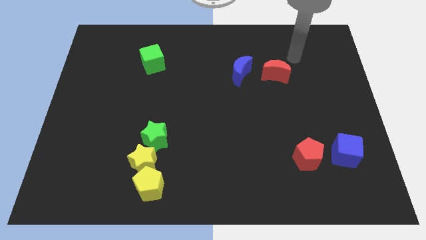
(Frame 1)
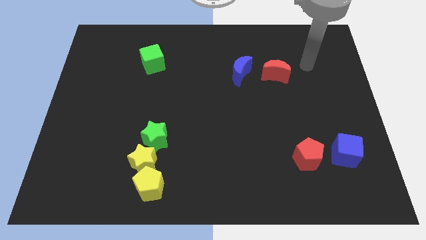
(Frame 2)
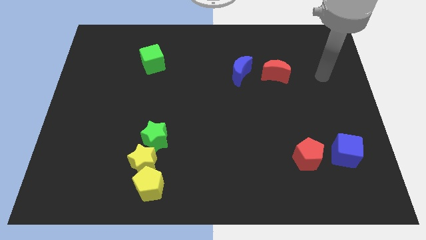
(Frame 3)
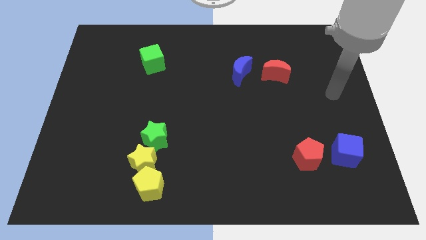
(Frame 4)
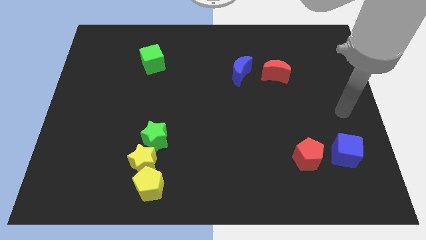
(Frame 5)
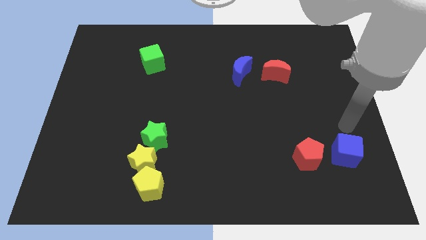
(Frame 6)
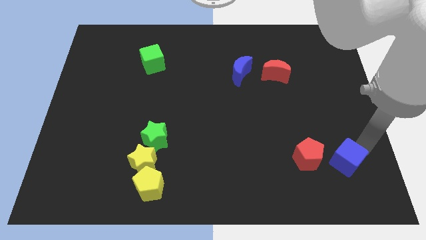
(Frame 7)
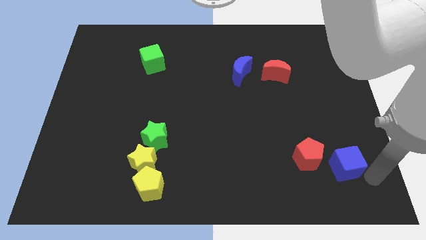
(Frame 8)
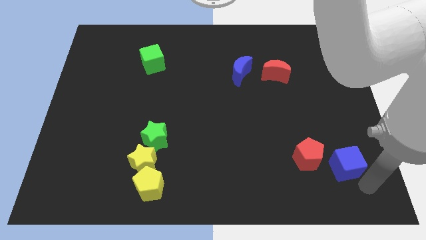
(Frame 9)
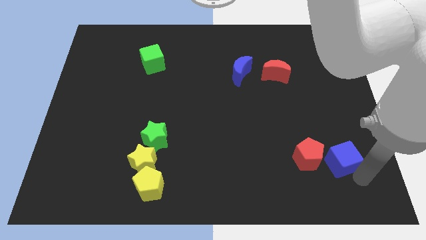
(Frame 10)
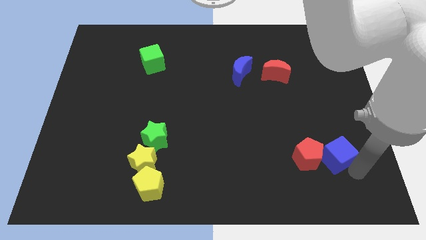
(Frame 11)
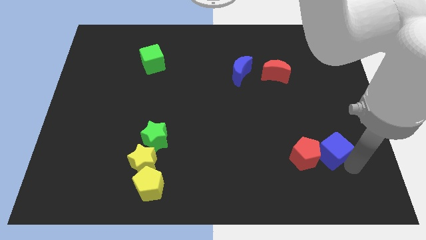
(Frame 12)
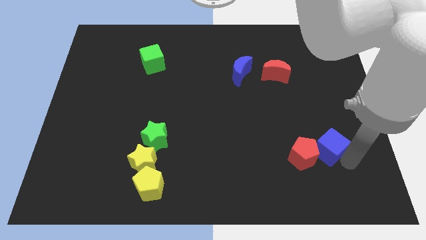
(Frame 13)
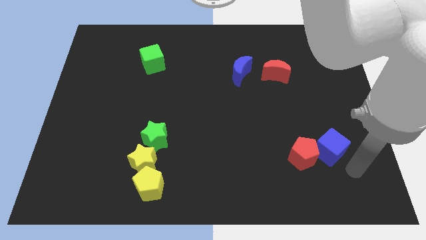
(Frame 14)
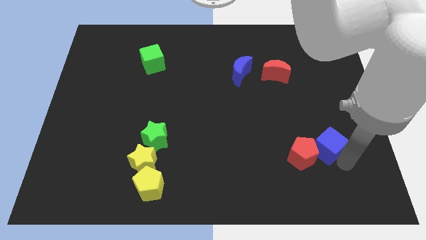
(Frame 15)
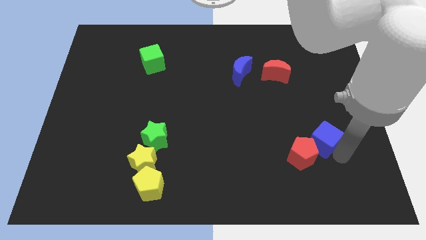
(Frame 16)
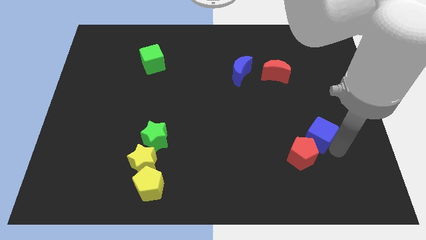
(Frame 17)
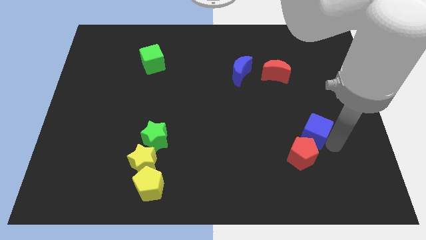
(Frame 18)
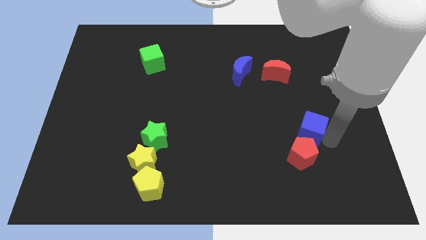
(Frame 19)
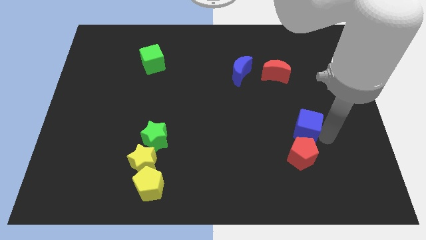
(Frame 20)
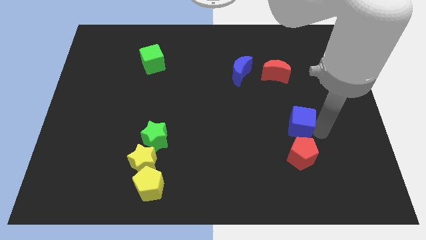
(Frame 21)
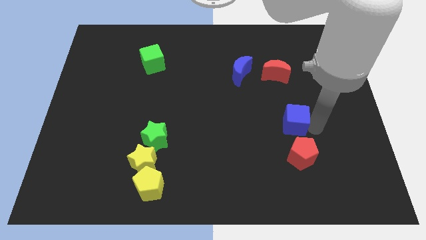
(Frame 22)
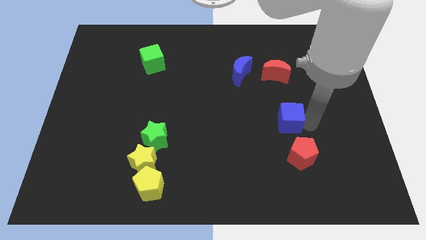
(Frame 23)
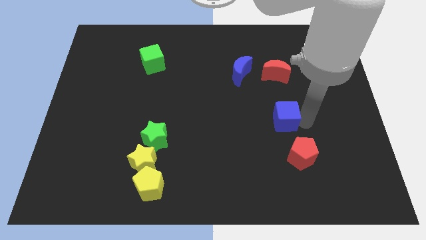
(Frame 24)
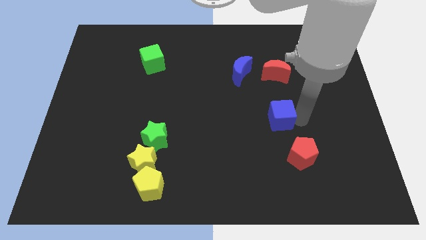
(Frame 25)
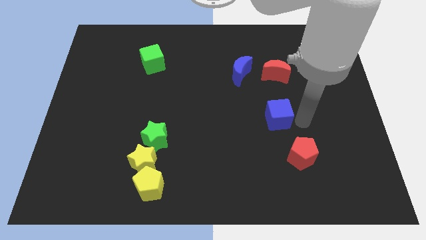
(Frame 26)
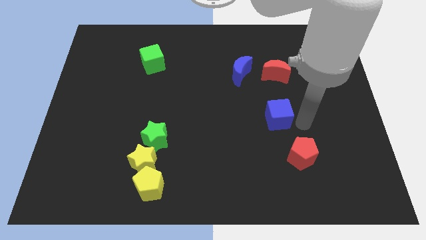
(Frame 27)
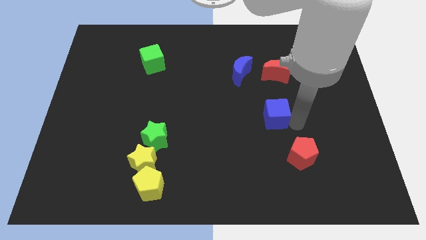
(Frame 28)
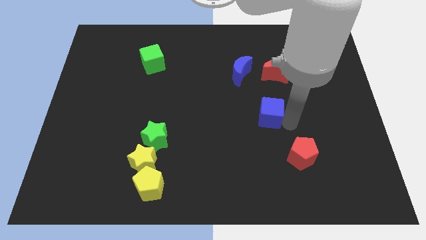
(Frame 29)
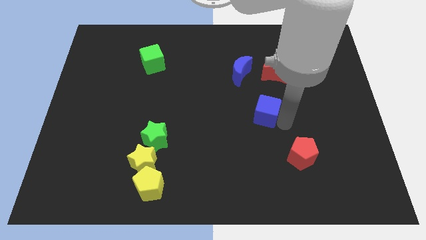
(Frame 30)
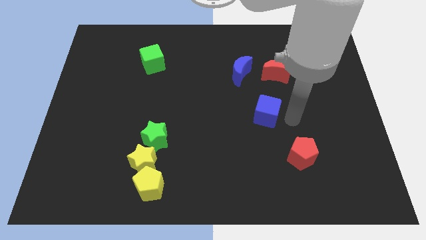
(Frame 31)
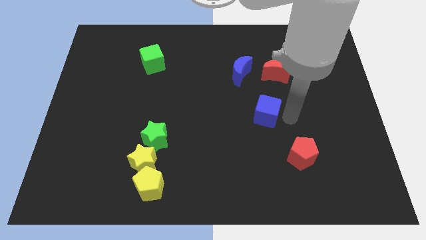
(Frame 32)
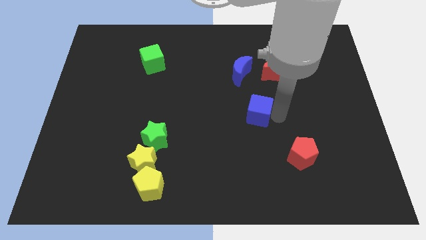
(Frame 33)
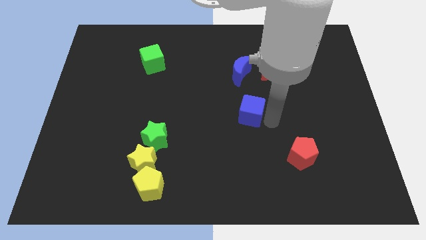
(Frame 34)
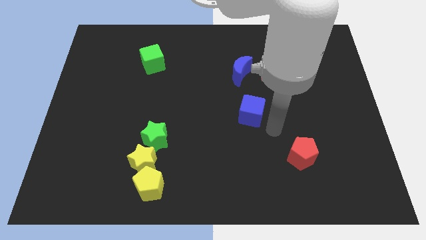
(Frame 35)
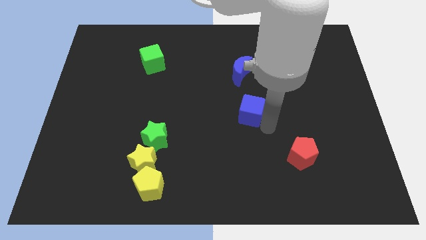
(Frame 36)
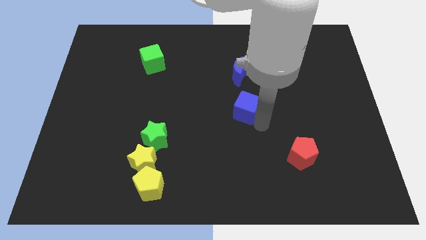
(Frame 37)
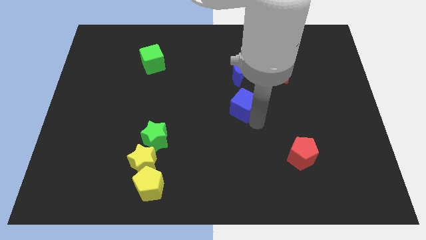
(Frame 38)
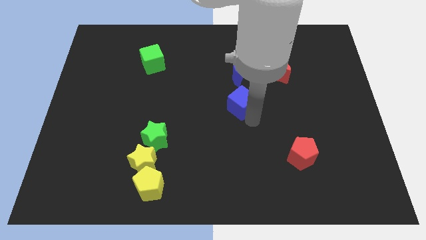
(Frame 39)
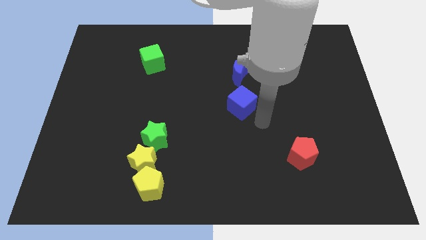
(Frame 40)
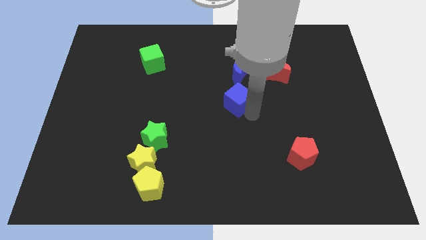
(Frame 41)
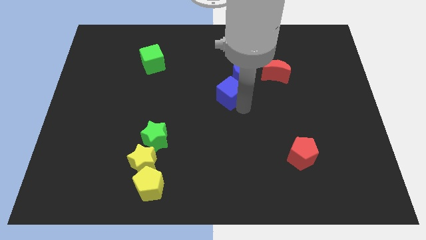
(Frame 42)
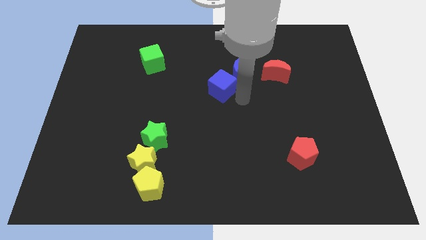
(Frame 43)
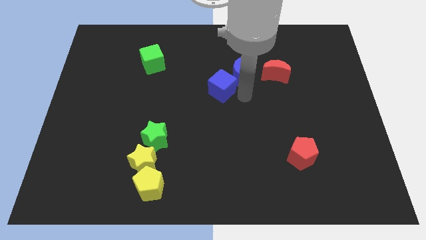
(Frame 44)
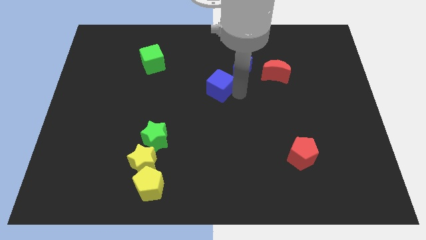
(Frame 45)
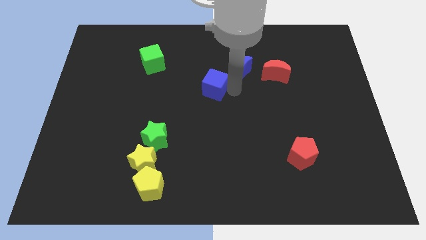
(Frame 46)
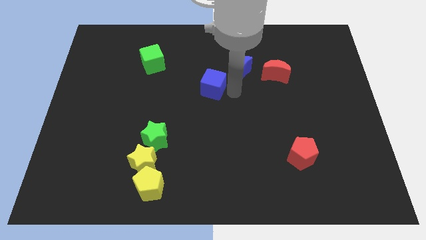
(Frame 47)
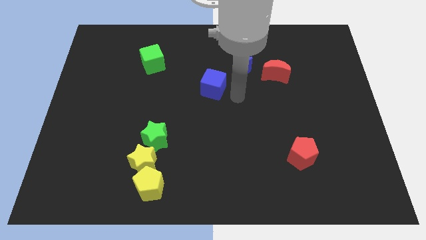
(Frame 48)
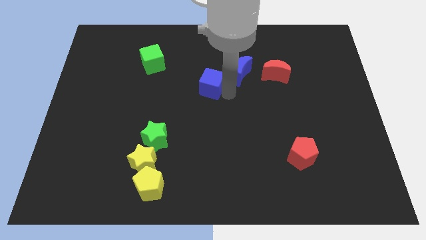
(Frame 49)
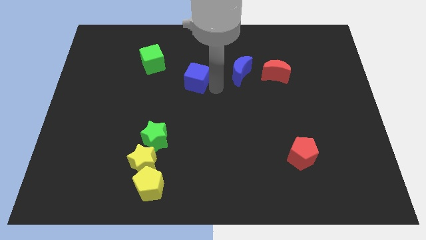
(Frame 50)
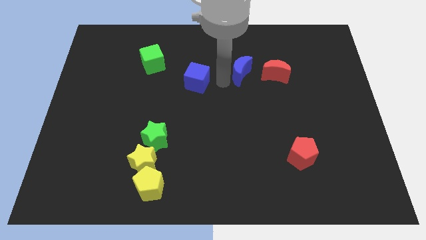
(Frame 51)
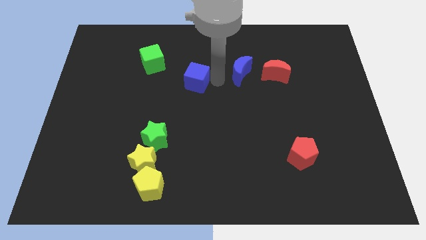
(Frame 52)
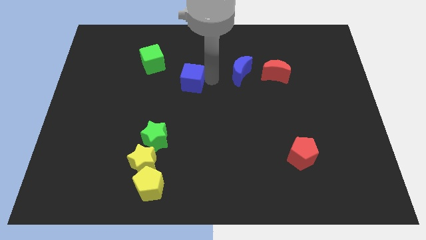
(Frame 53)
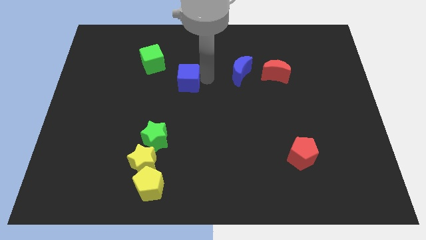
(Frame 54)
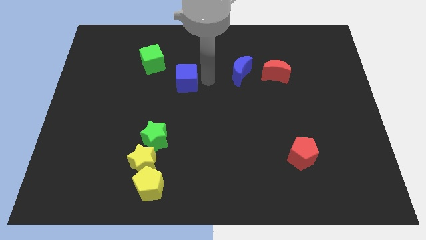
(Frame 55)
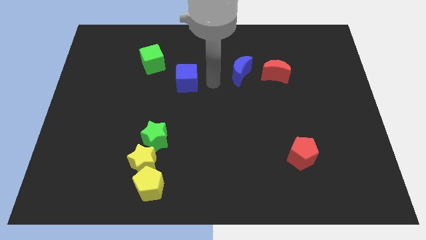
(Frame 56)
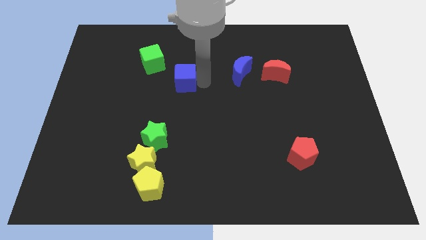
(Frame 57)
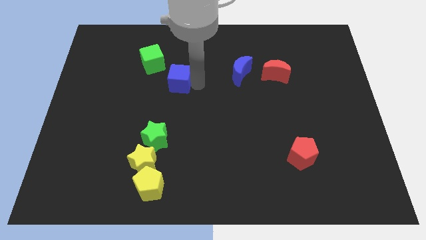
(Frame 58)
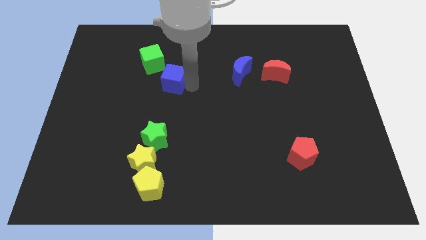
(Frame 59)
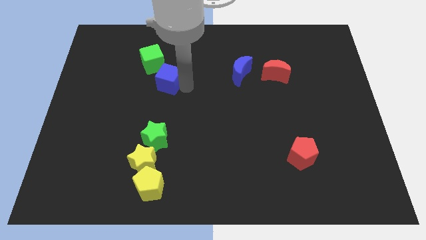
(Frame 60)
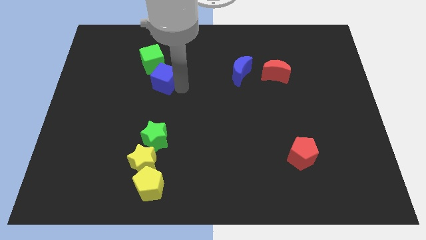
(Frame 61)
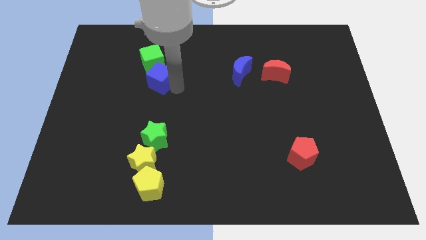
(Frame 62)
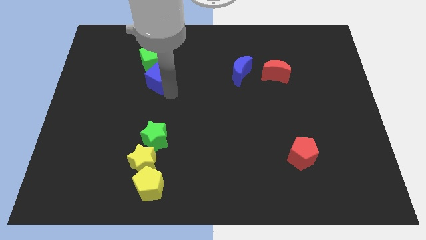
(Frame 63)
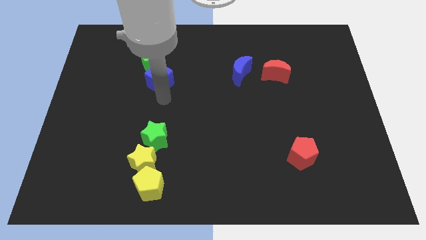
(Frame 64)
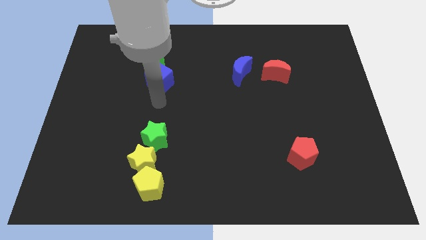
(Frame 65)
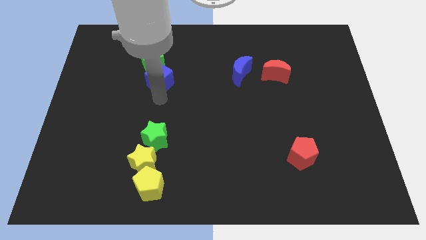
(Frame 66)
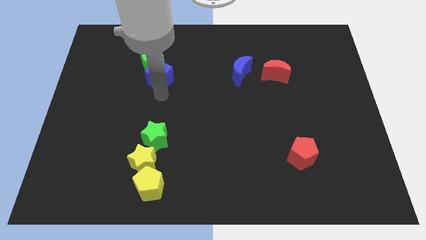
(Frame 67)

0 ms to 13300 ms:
slide the blue cube next to the green cube

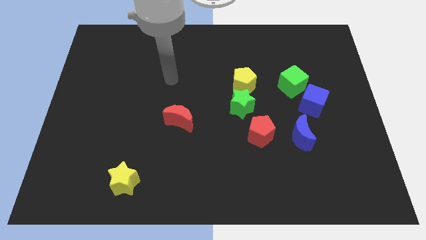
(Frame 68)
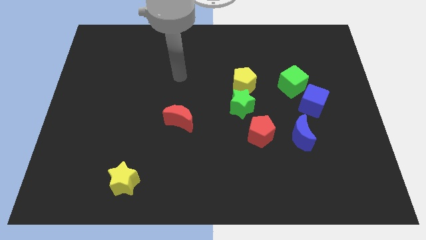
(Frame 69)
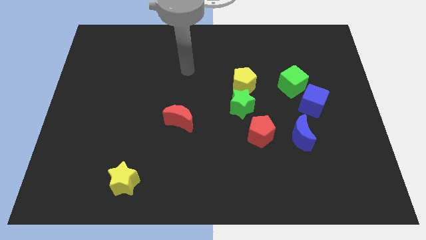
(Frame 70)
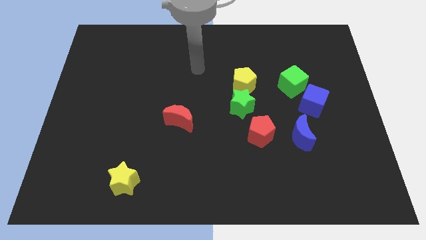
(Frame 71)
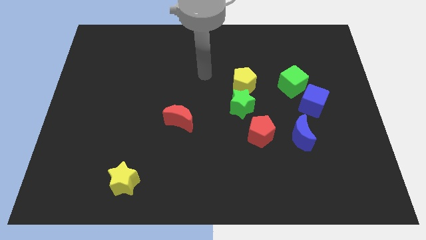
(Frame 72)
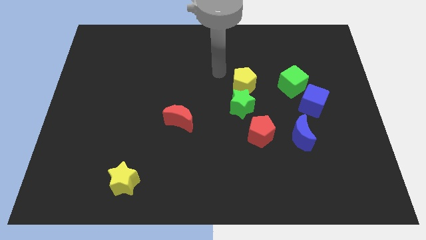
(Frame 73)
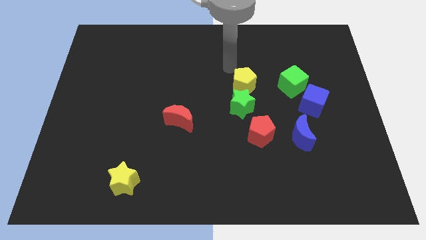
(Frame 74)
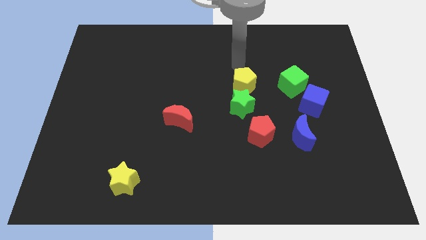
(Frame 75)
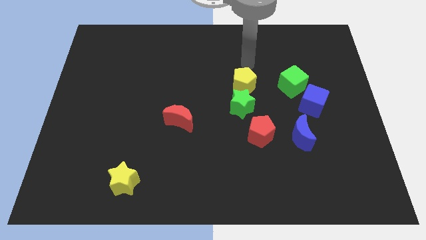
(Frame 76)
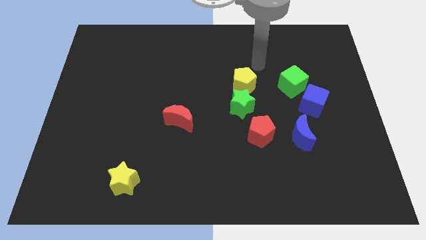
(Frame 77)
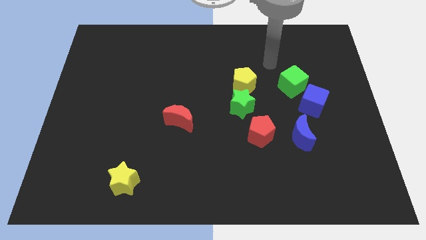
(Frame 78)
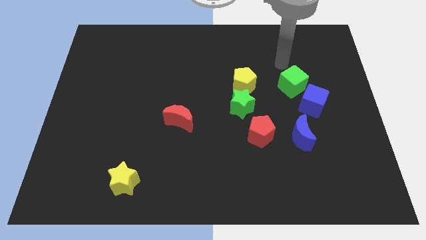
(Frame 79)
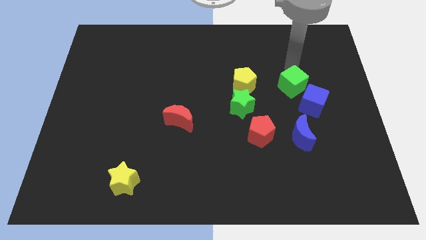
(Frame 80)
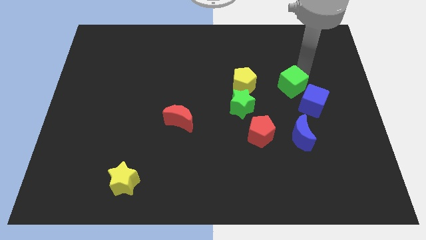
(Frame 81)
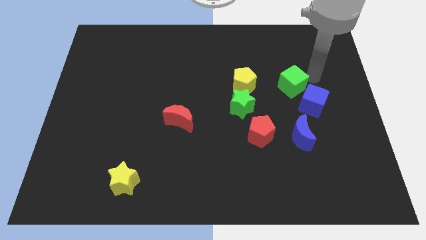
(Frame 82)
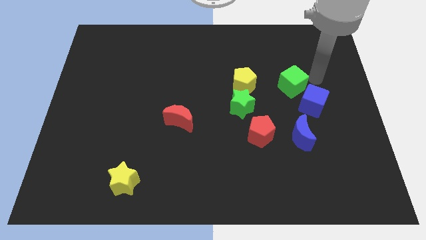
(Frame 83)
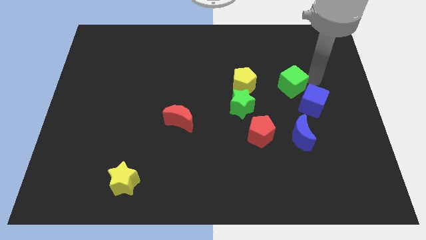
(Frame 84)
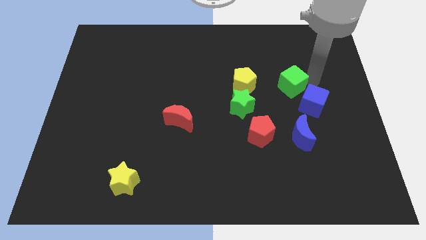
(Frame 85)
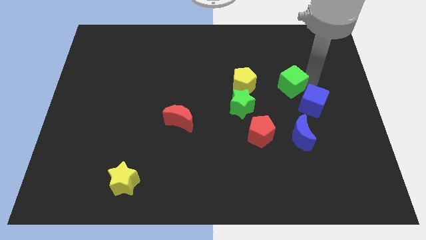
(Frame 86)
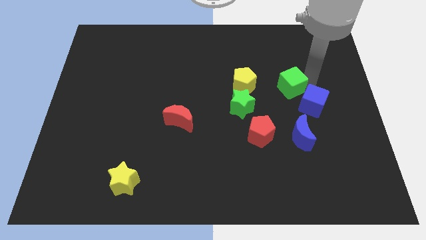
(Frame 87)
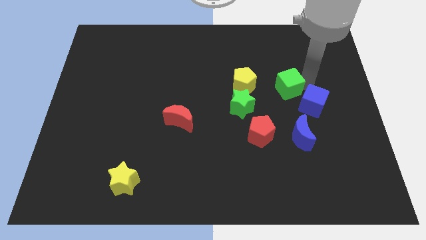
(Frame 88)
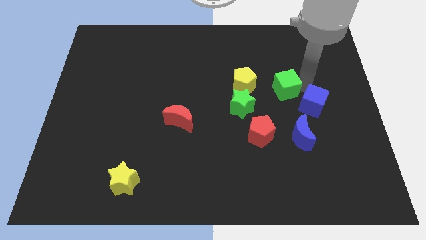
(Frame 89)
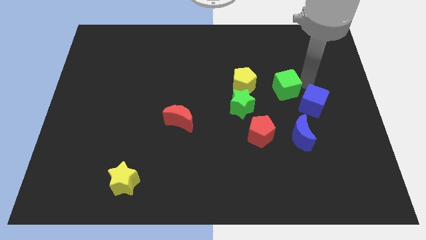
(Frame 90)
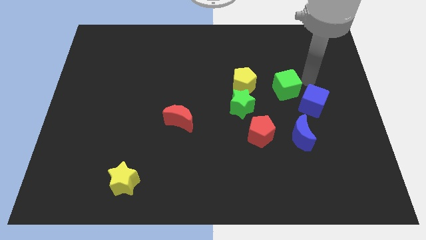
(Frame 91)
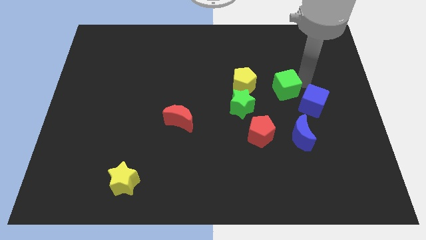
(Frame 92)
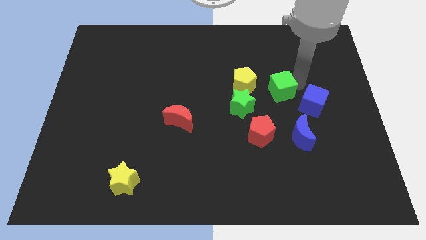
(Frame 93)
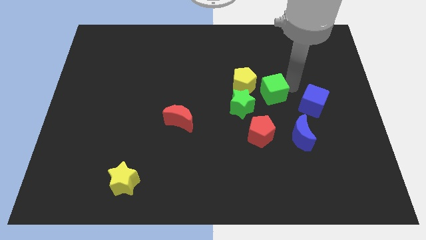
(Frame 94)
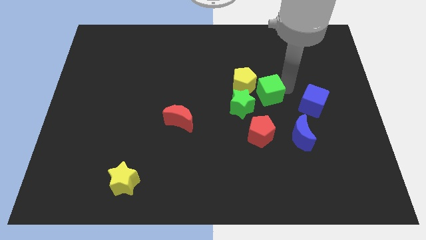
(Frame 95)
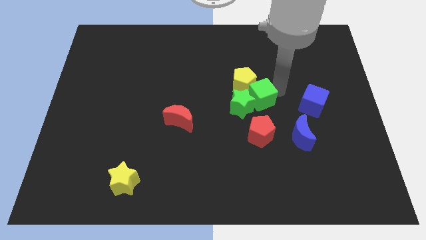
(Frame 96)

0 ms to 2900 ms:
push the green cube close to the green star
